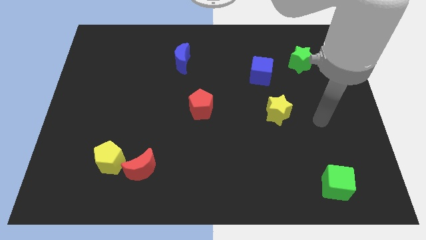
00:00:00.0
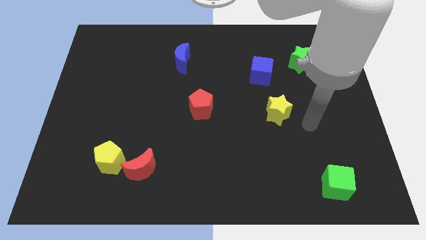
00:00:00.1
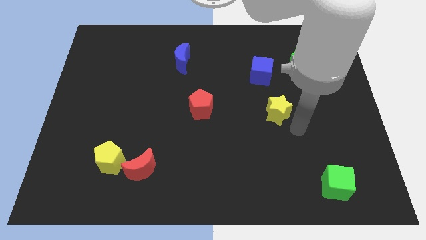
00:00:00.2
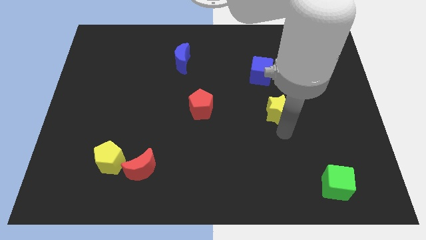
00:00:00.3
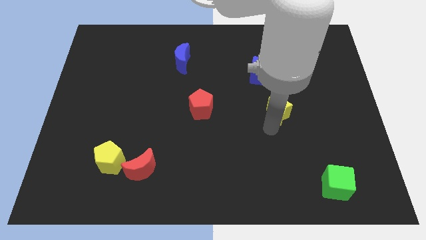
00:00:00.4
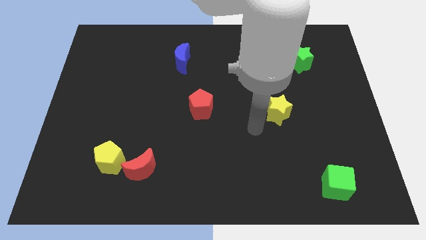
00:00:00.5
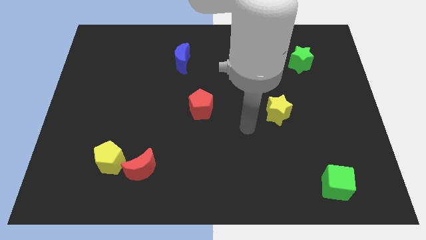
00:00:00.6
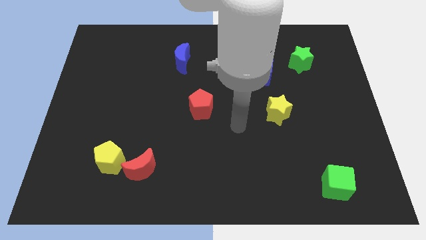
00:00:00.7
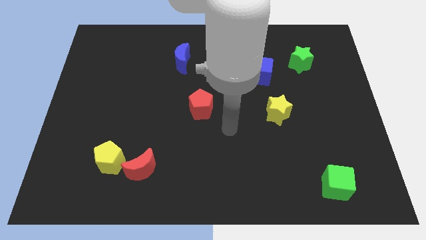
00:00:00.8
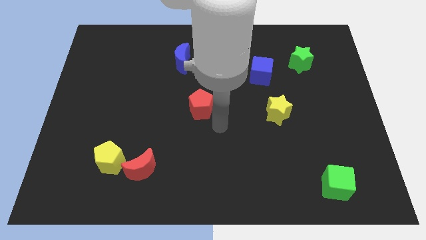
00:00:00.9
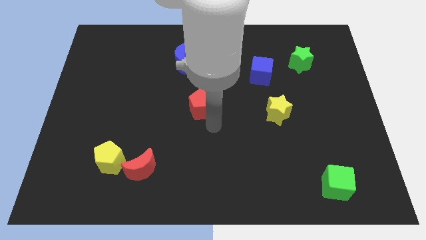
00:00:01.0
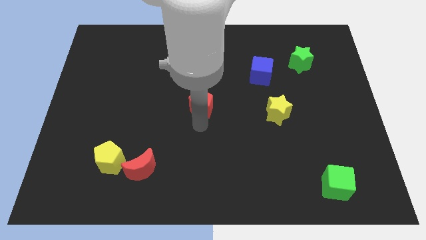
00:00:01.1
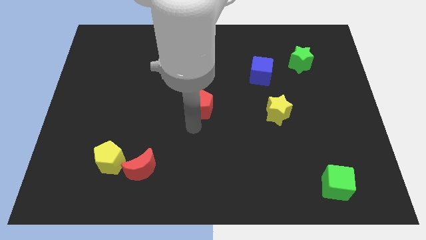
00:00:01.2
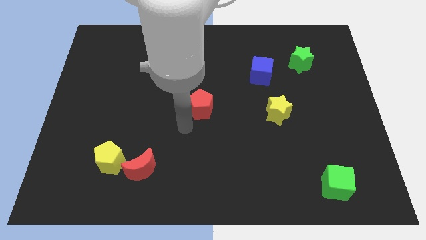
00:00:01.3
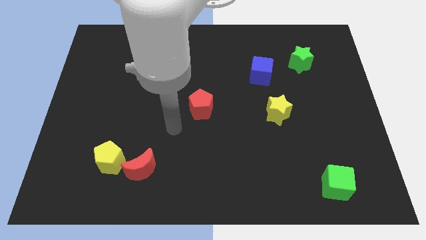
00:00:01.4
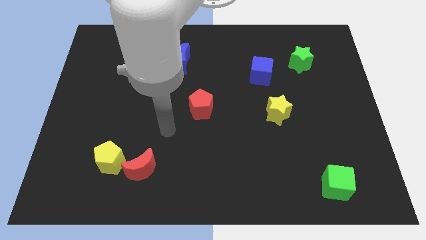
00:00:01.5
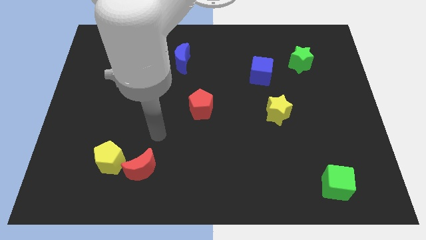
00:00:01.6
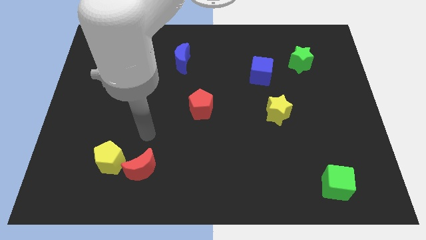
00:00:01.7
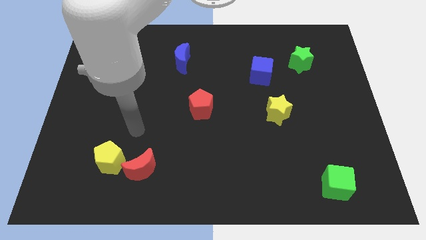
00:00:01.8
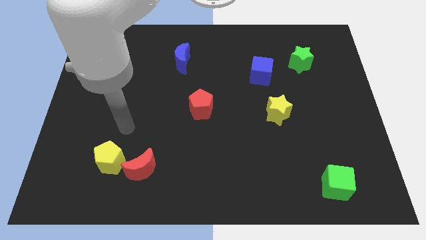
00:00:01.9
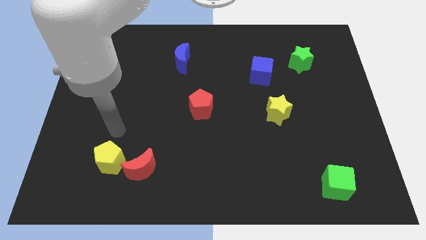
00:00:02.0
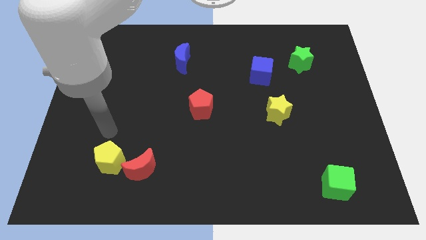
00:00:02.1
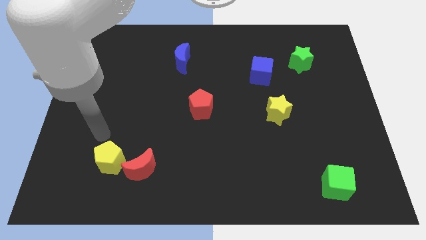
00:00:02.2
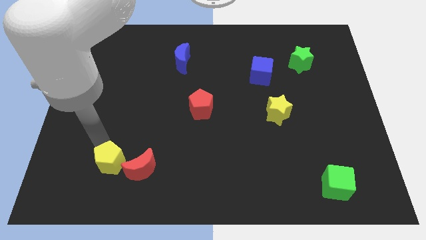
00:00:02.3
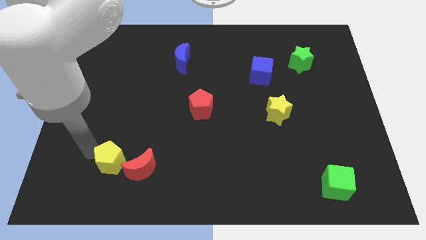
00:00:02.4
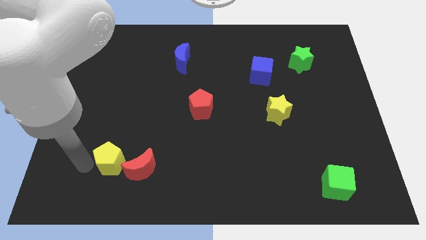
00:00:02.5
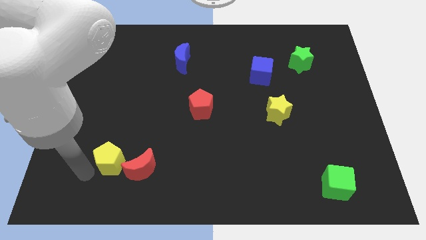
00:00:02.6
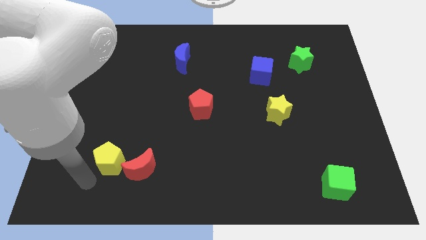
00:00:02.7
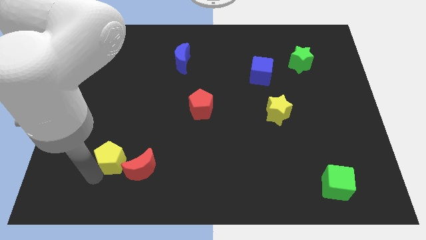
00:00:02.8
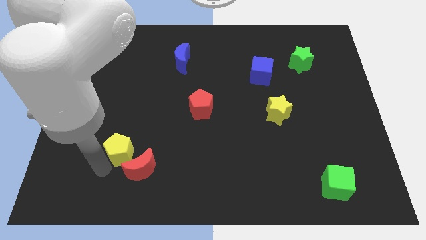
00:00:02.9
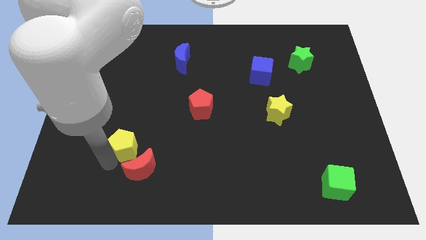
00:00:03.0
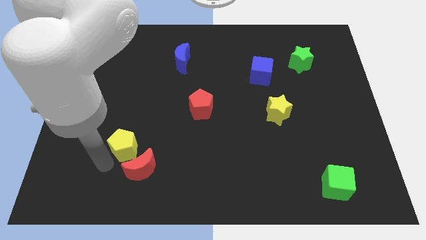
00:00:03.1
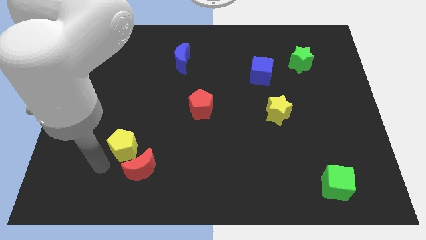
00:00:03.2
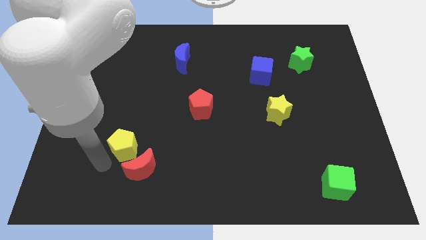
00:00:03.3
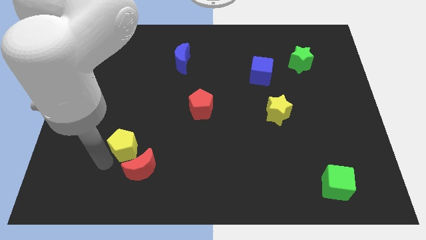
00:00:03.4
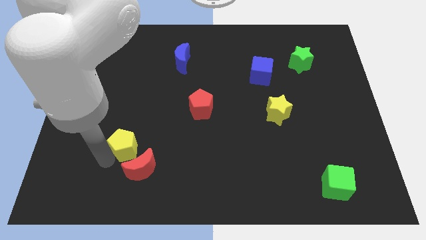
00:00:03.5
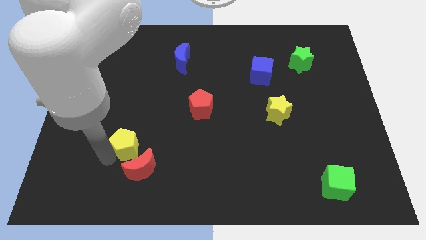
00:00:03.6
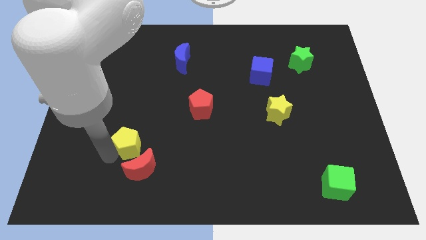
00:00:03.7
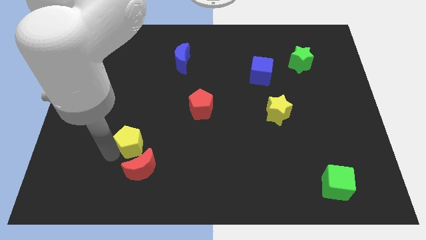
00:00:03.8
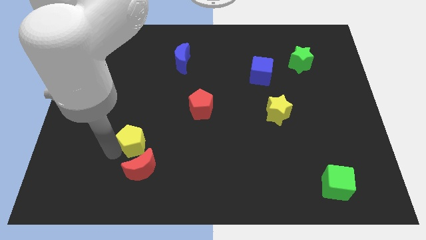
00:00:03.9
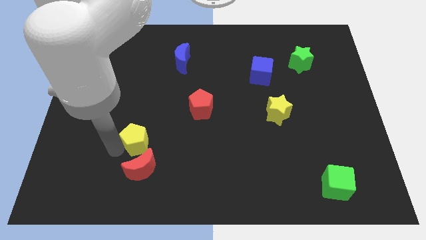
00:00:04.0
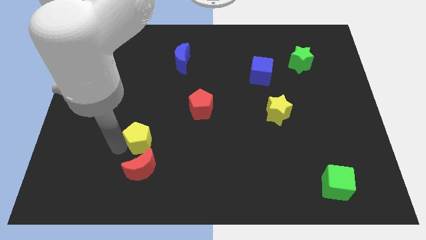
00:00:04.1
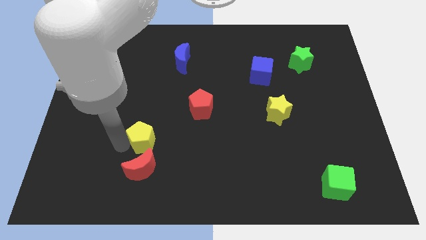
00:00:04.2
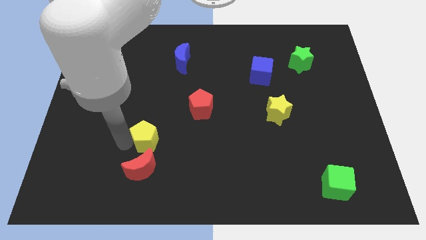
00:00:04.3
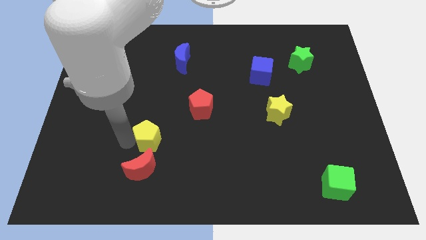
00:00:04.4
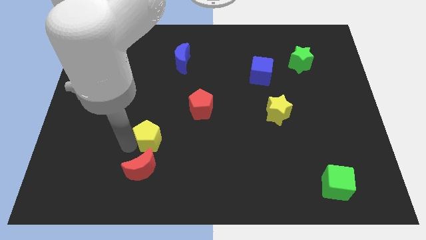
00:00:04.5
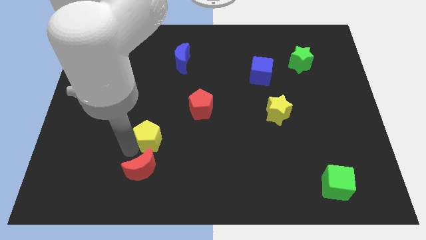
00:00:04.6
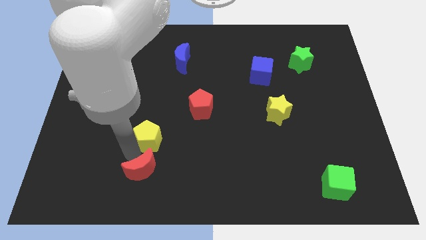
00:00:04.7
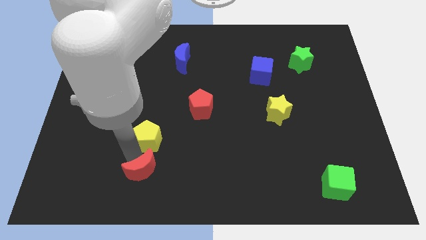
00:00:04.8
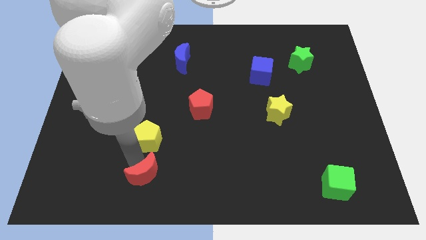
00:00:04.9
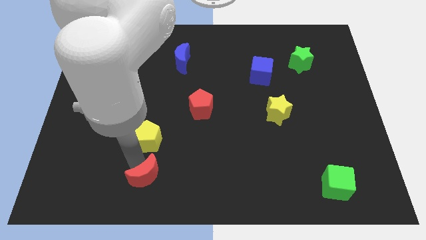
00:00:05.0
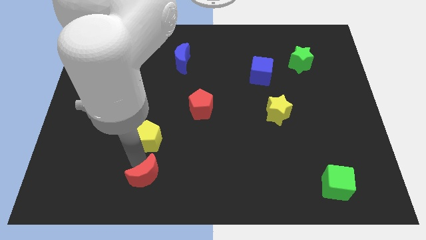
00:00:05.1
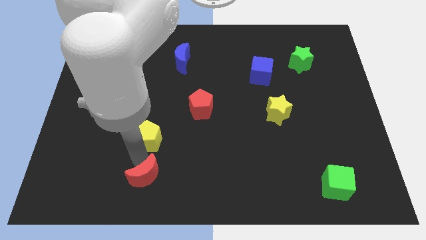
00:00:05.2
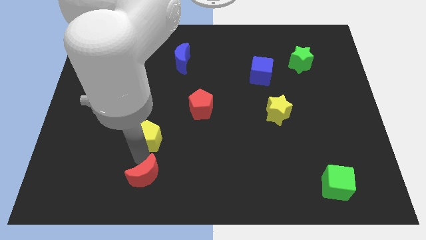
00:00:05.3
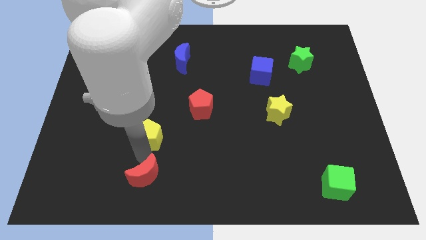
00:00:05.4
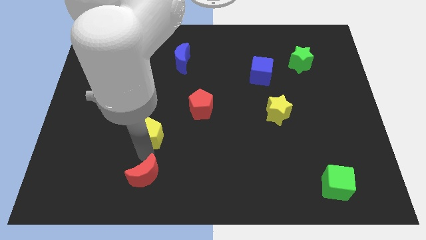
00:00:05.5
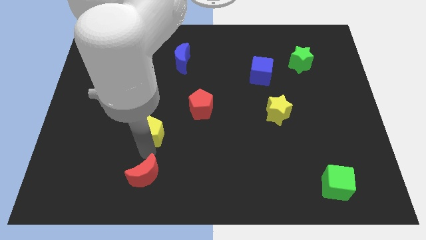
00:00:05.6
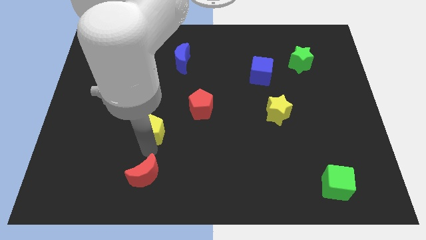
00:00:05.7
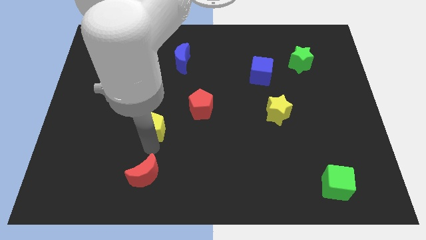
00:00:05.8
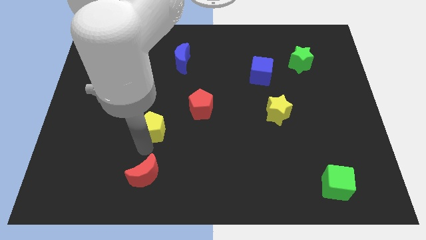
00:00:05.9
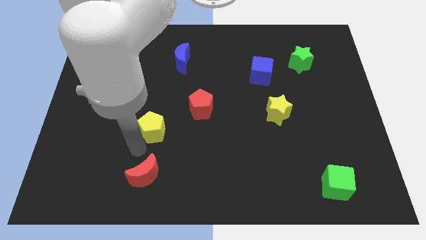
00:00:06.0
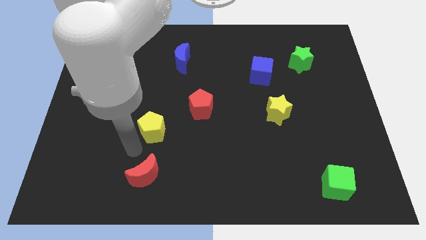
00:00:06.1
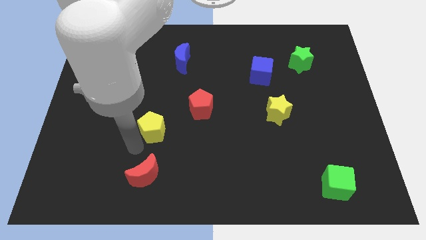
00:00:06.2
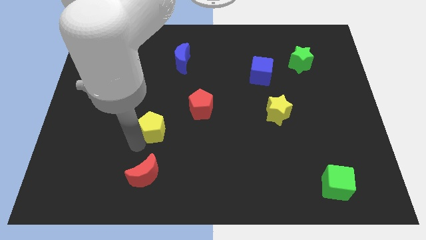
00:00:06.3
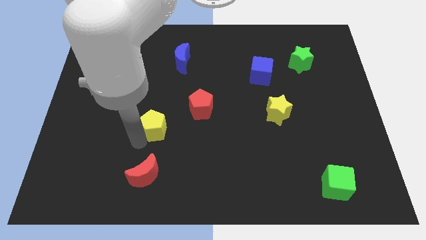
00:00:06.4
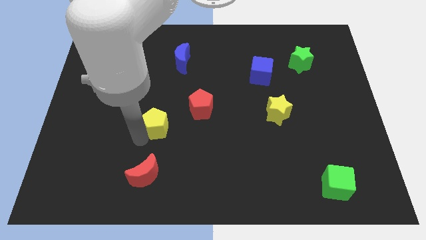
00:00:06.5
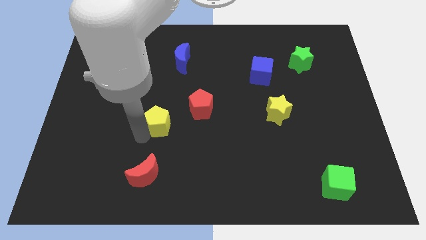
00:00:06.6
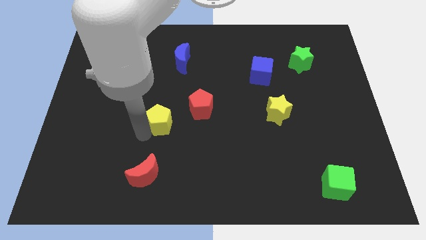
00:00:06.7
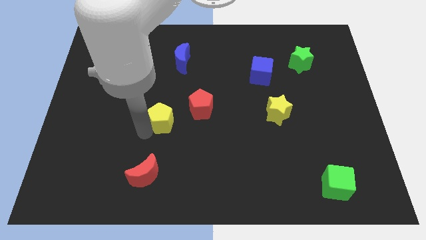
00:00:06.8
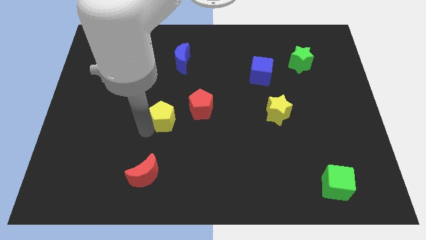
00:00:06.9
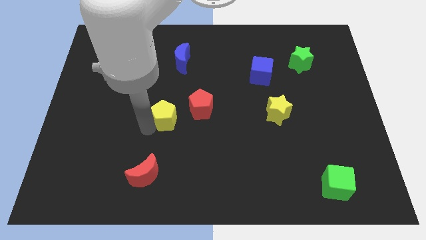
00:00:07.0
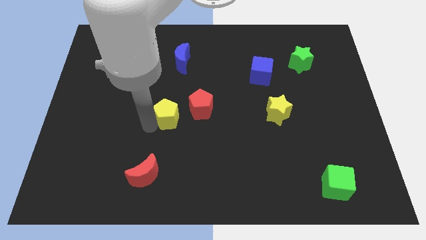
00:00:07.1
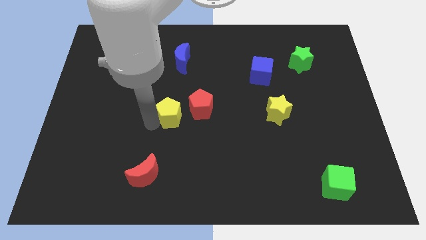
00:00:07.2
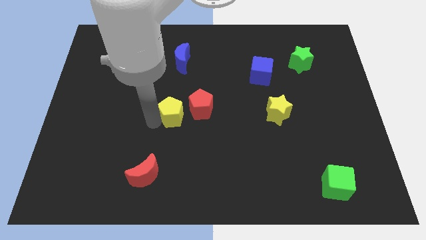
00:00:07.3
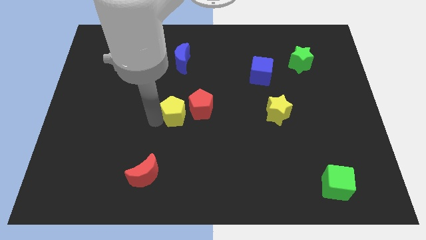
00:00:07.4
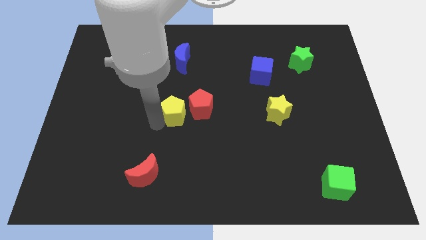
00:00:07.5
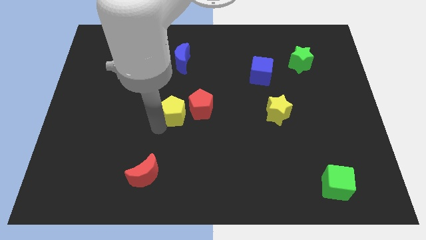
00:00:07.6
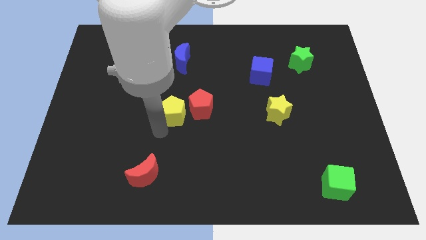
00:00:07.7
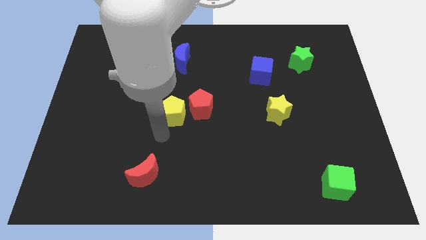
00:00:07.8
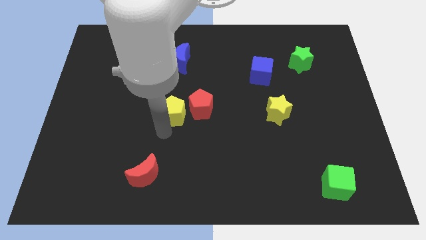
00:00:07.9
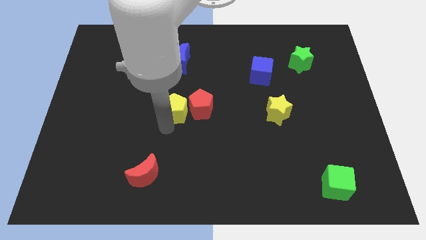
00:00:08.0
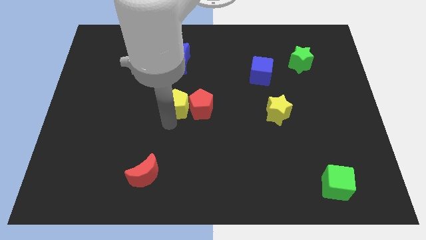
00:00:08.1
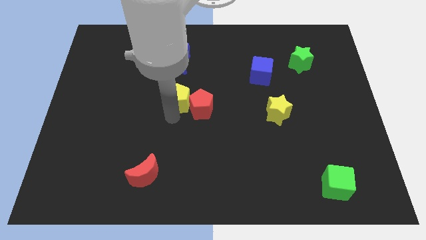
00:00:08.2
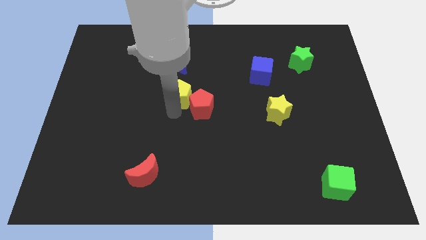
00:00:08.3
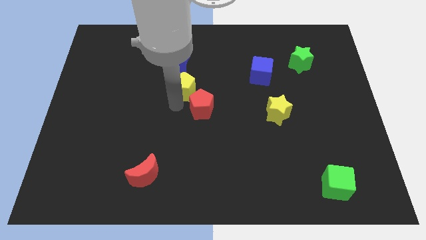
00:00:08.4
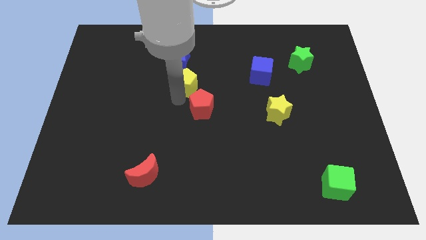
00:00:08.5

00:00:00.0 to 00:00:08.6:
push the yellow pentagon to the bottom right side of the blue moon
